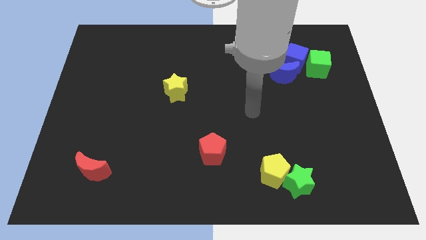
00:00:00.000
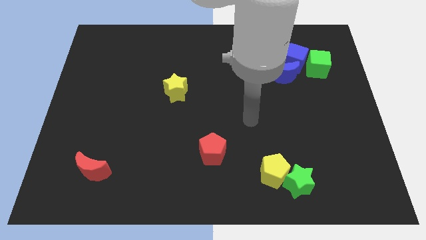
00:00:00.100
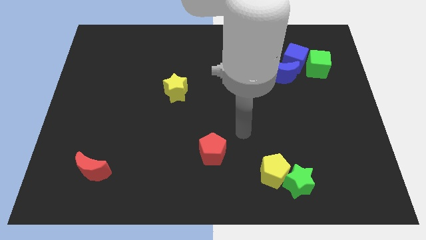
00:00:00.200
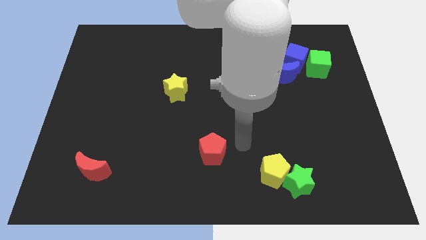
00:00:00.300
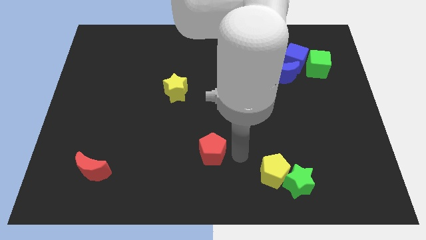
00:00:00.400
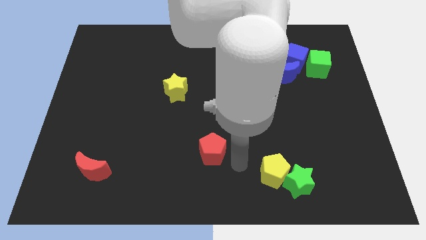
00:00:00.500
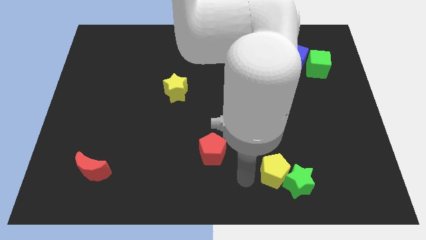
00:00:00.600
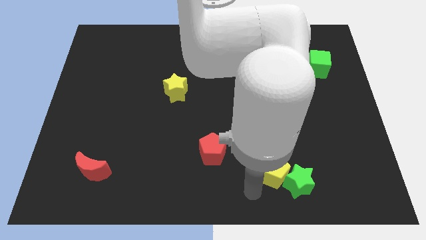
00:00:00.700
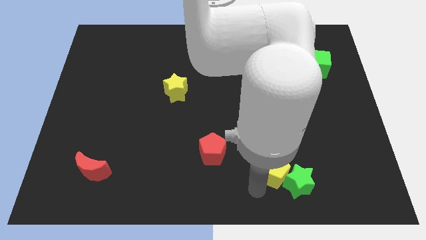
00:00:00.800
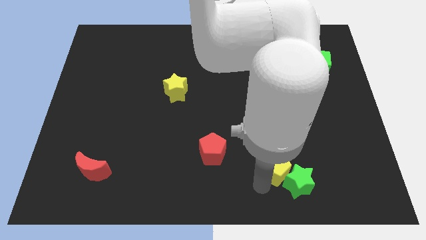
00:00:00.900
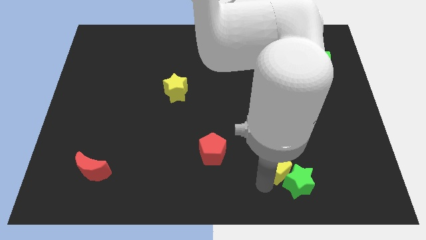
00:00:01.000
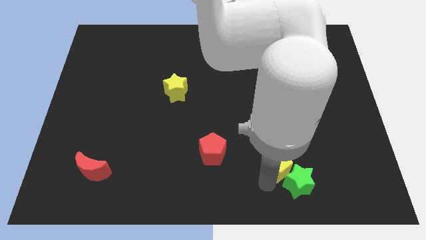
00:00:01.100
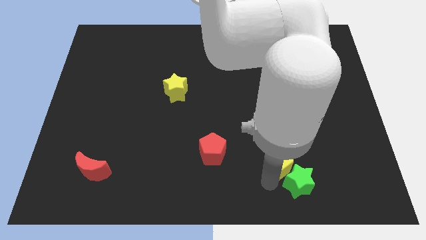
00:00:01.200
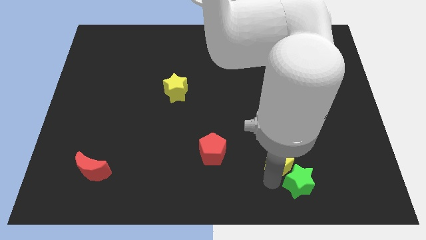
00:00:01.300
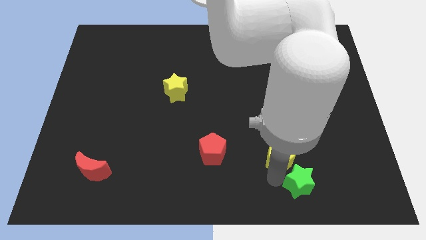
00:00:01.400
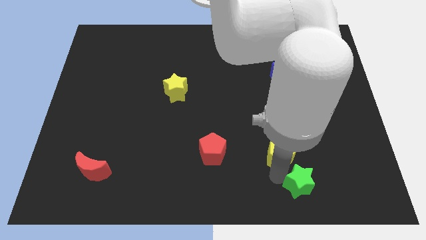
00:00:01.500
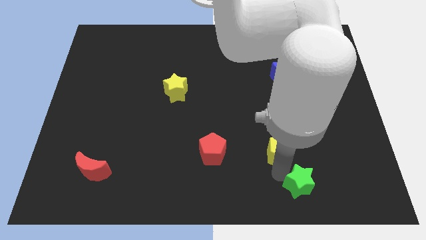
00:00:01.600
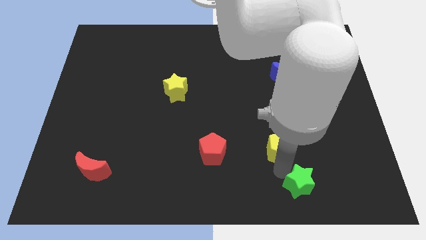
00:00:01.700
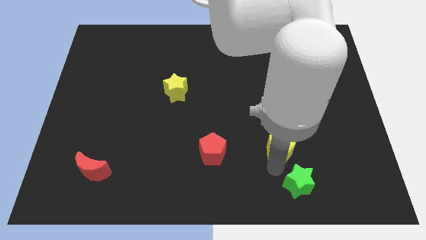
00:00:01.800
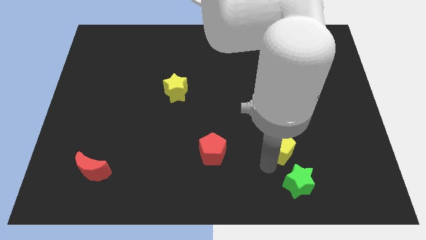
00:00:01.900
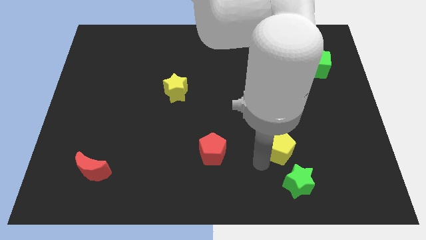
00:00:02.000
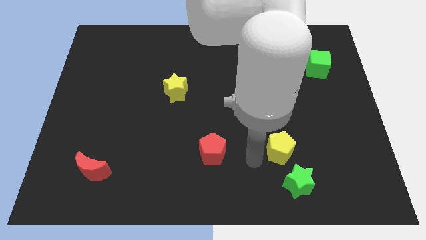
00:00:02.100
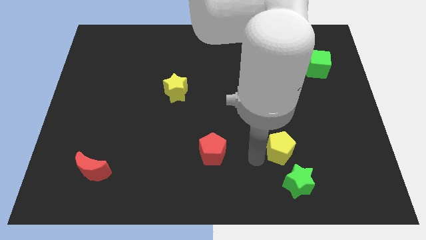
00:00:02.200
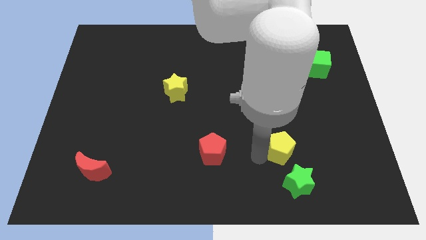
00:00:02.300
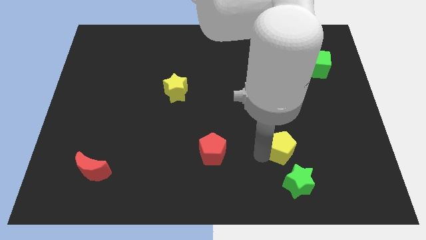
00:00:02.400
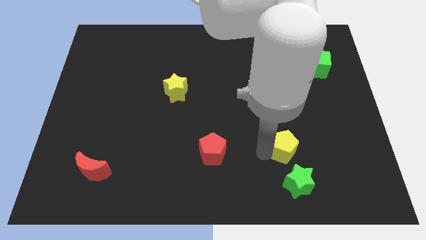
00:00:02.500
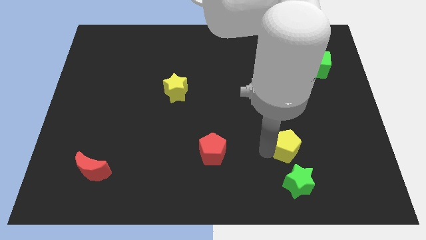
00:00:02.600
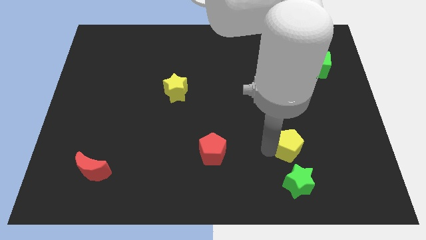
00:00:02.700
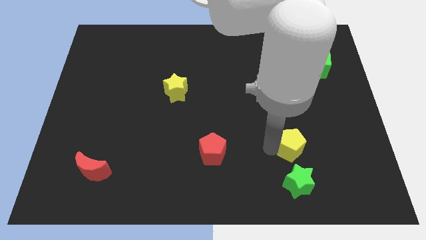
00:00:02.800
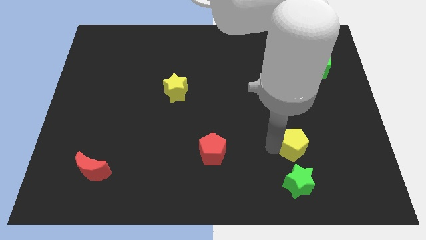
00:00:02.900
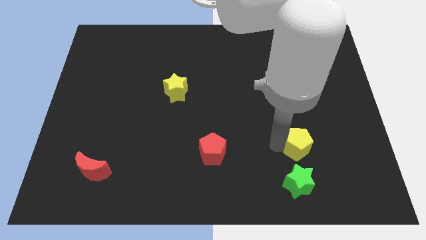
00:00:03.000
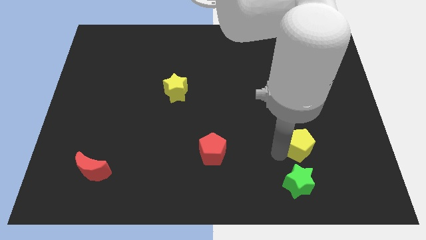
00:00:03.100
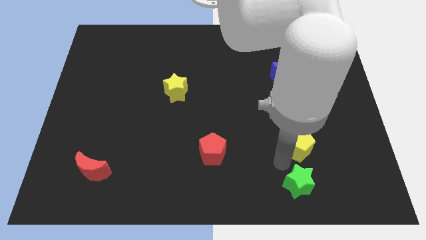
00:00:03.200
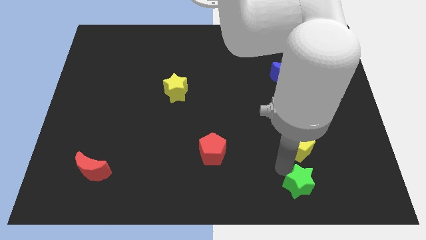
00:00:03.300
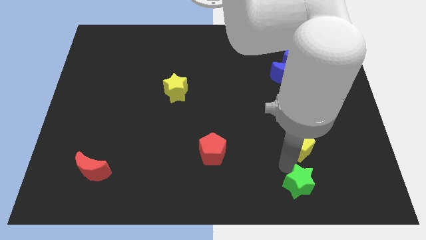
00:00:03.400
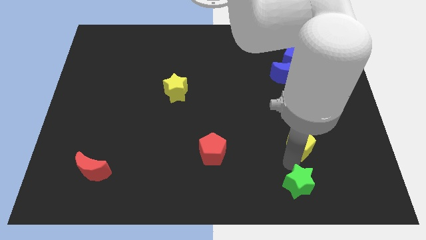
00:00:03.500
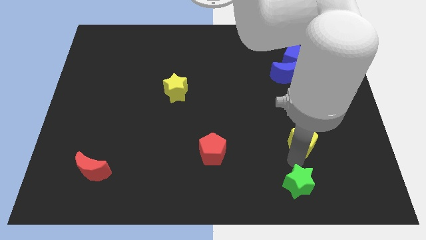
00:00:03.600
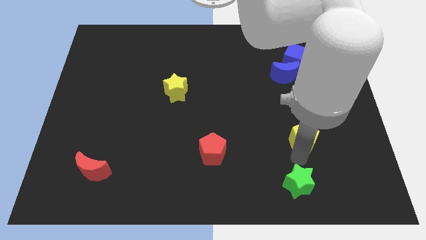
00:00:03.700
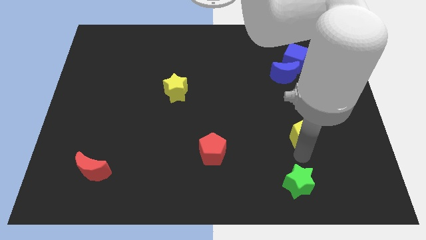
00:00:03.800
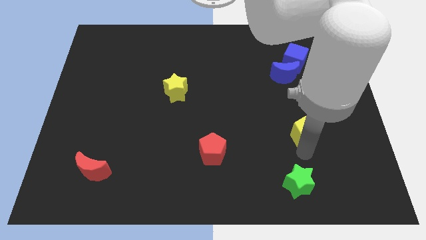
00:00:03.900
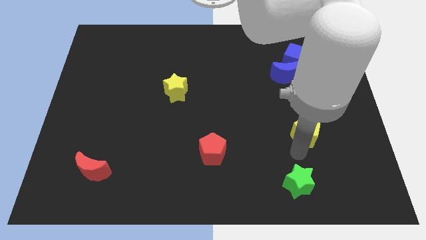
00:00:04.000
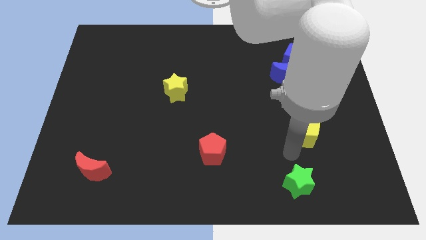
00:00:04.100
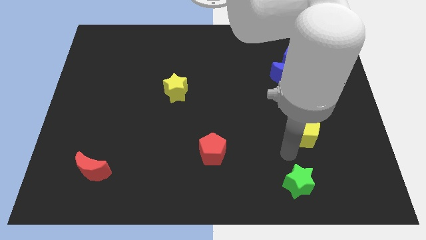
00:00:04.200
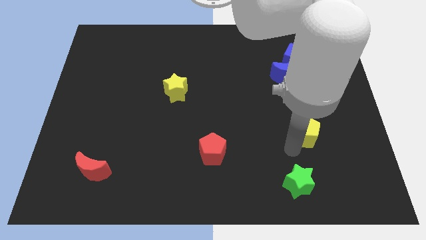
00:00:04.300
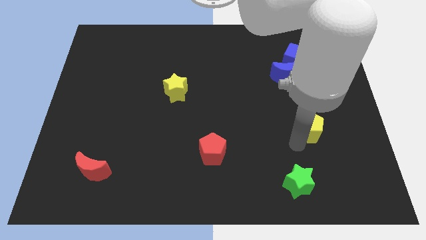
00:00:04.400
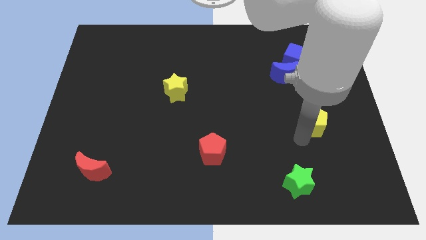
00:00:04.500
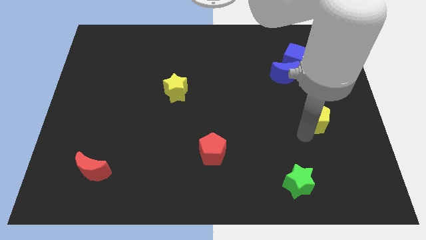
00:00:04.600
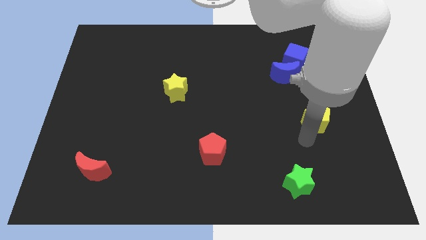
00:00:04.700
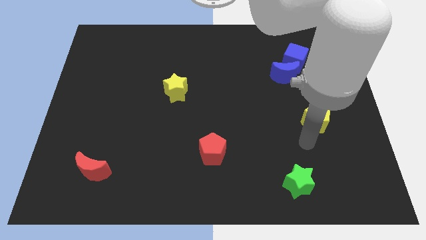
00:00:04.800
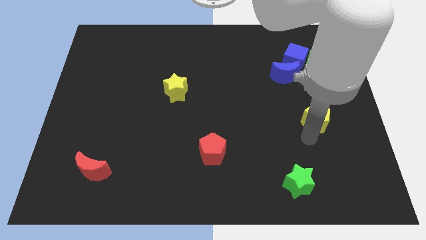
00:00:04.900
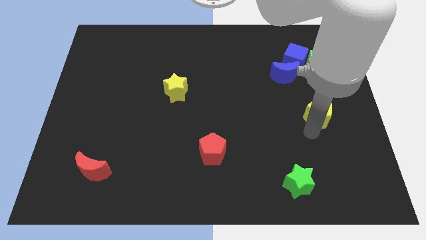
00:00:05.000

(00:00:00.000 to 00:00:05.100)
push the yellow pentagon to the bottom of the green cube

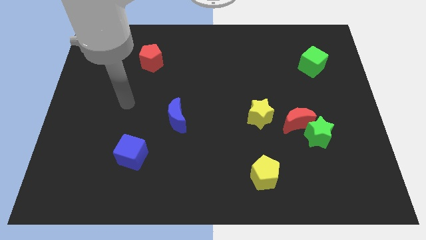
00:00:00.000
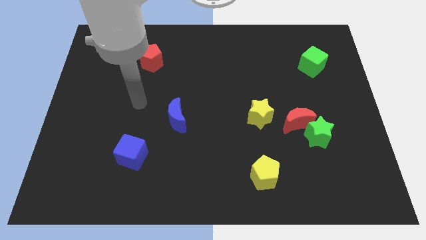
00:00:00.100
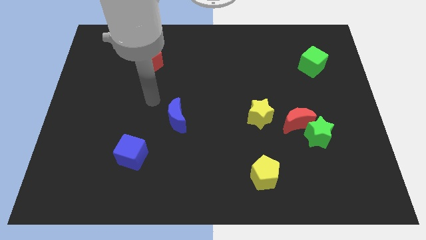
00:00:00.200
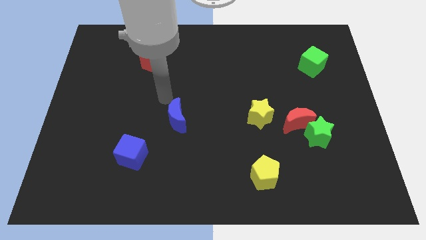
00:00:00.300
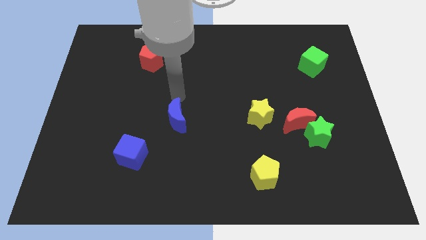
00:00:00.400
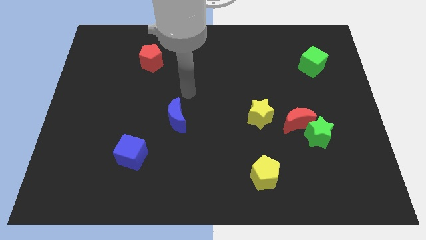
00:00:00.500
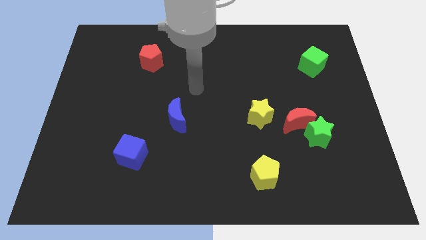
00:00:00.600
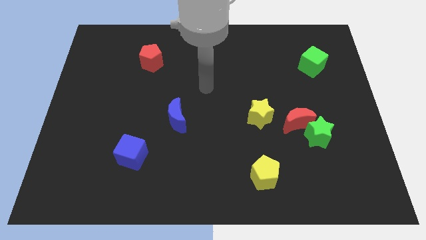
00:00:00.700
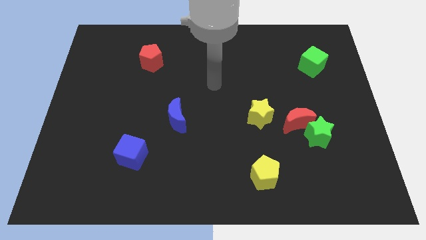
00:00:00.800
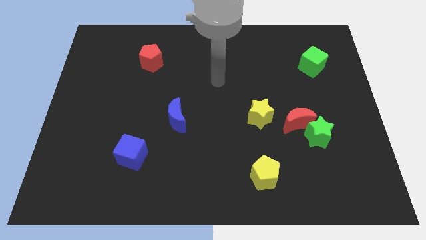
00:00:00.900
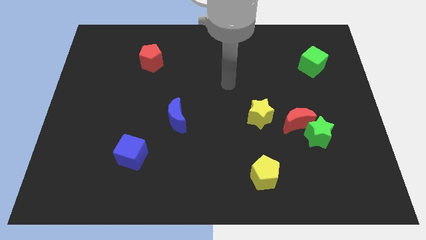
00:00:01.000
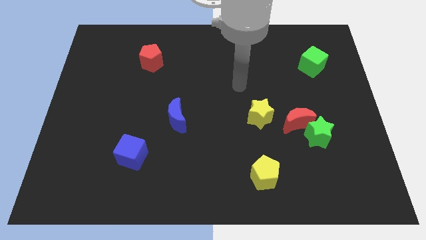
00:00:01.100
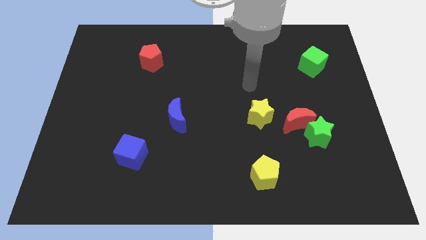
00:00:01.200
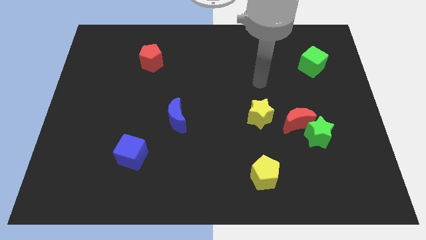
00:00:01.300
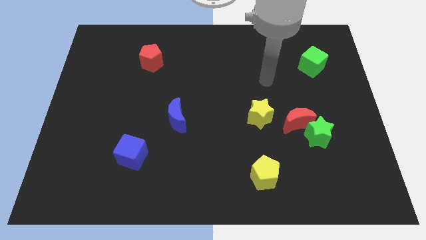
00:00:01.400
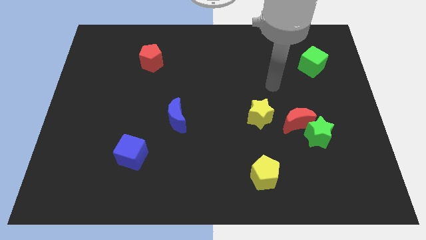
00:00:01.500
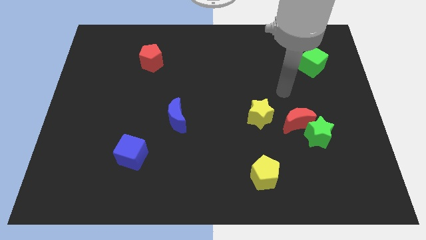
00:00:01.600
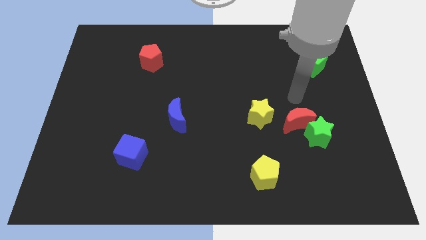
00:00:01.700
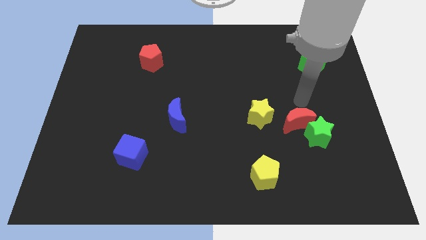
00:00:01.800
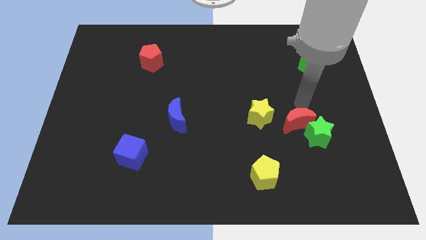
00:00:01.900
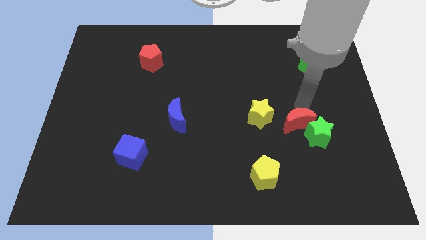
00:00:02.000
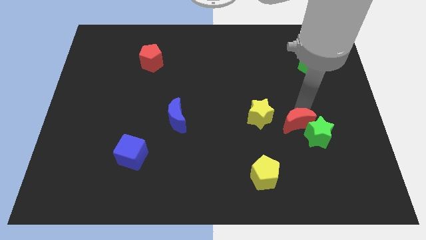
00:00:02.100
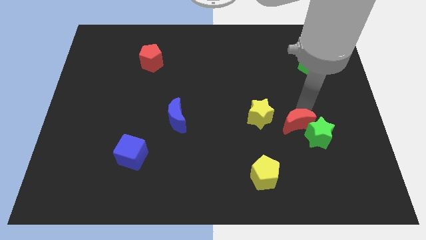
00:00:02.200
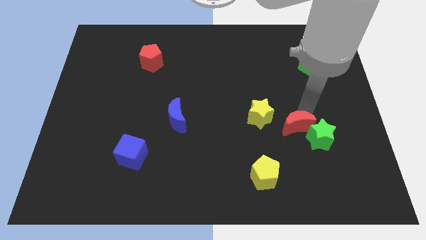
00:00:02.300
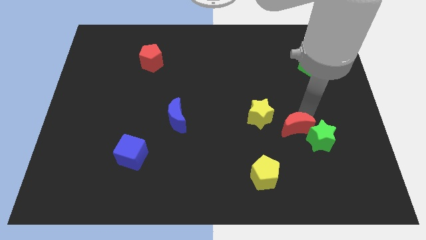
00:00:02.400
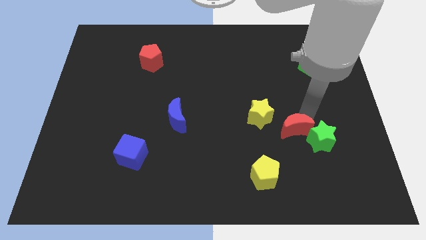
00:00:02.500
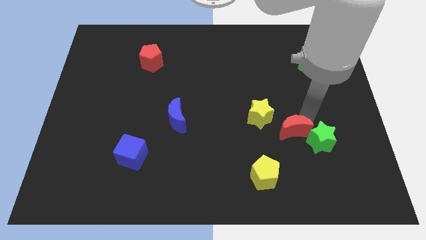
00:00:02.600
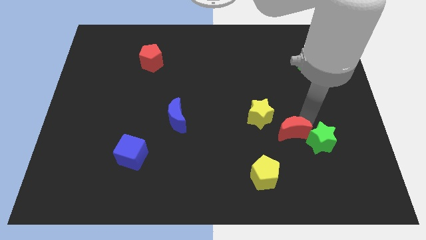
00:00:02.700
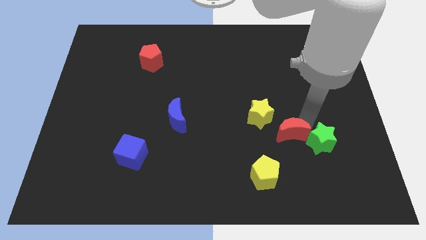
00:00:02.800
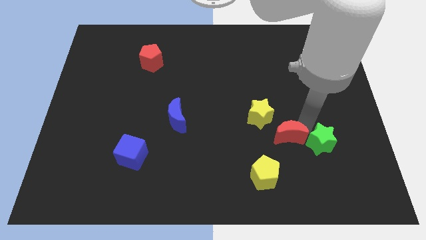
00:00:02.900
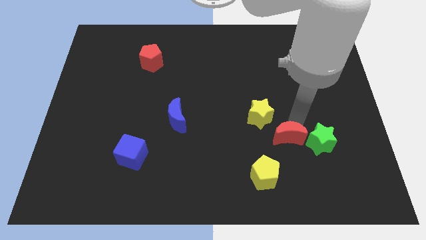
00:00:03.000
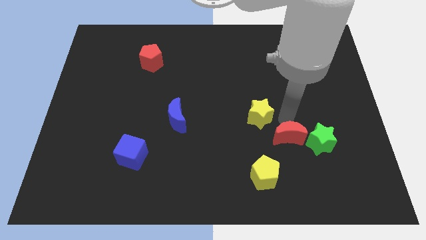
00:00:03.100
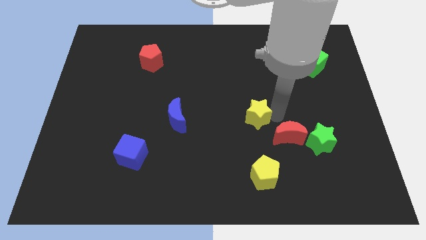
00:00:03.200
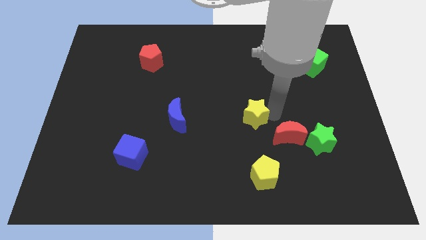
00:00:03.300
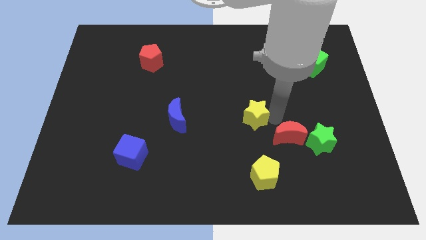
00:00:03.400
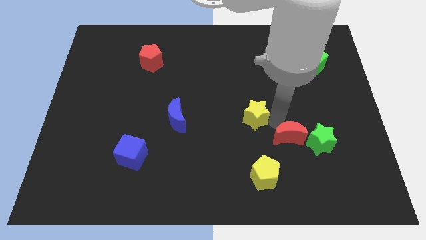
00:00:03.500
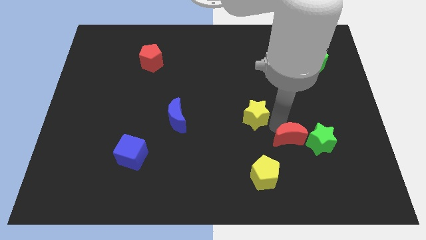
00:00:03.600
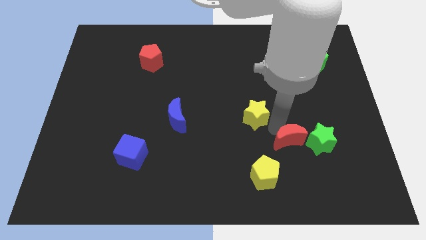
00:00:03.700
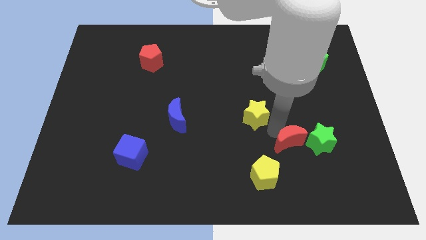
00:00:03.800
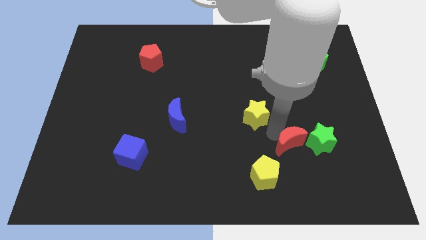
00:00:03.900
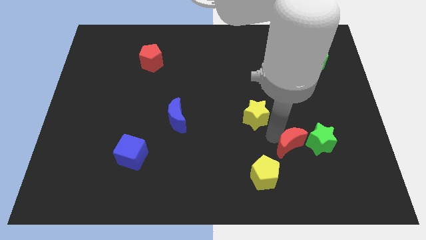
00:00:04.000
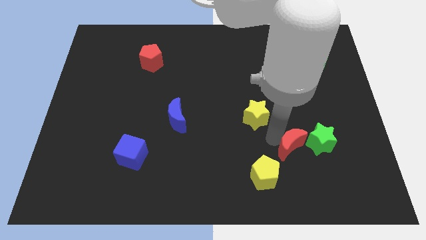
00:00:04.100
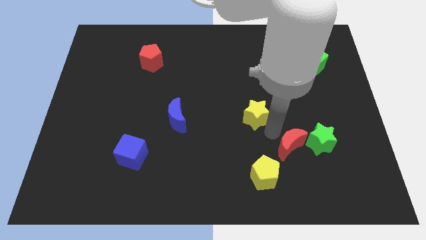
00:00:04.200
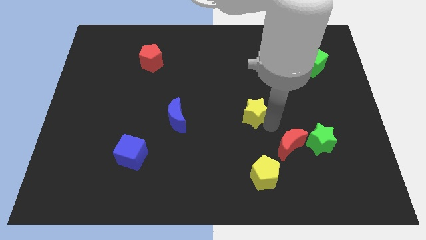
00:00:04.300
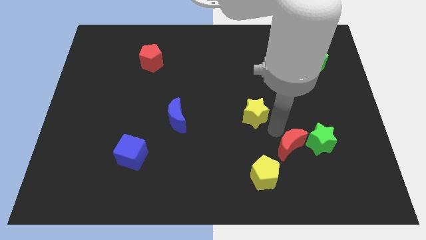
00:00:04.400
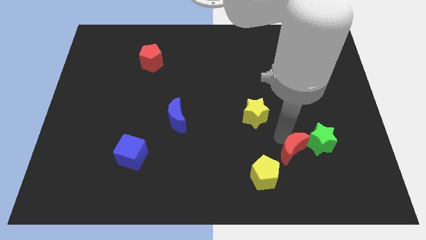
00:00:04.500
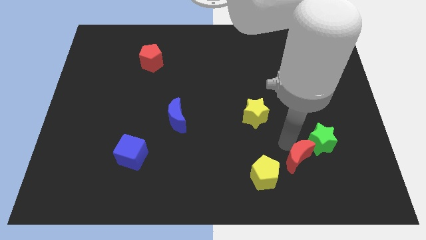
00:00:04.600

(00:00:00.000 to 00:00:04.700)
put the red moon to the right side of the yellow pentagon
